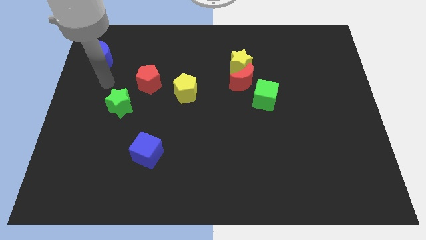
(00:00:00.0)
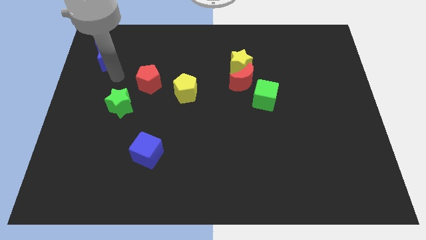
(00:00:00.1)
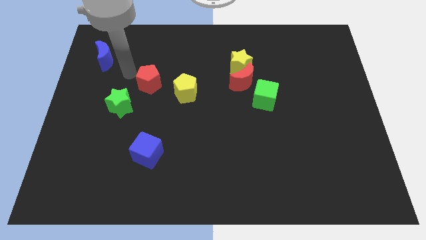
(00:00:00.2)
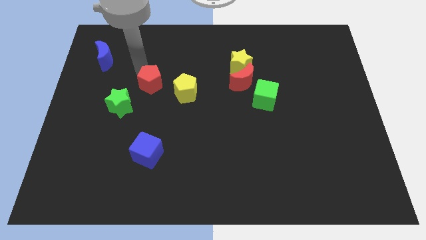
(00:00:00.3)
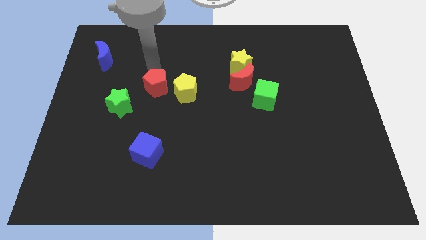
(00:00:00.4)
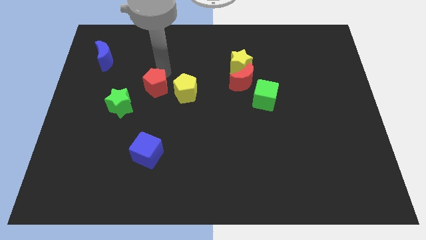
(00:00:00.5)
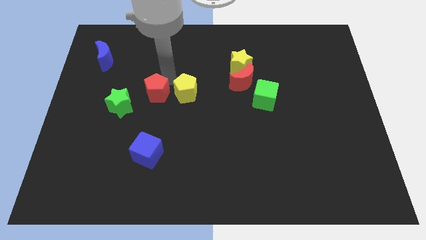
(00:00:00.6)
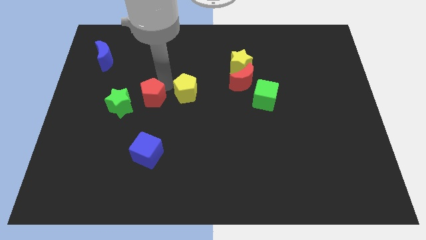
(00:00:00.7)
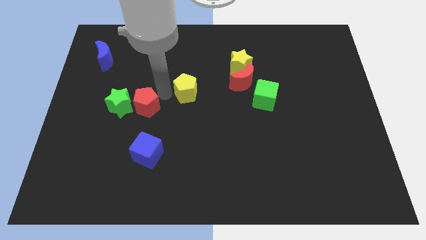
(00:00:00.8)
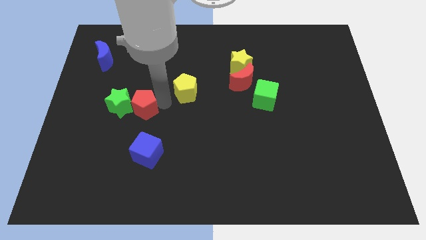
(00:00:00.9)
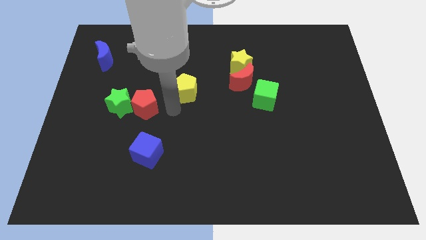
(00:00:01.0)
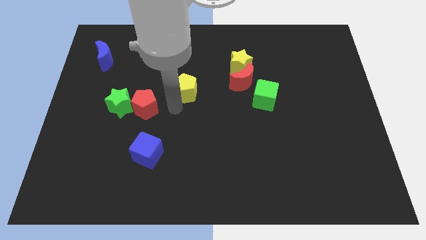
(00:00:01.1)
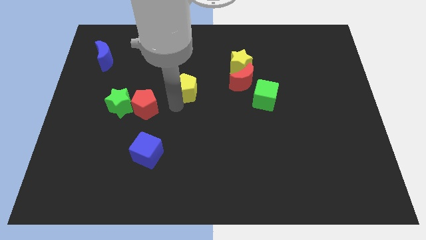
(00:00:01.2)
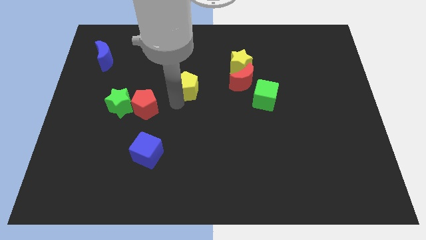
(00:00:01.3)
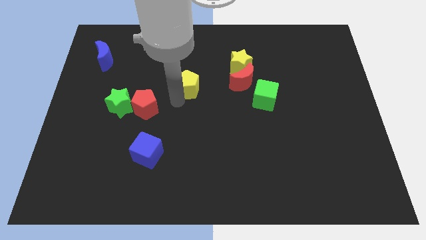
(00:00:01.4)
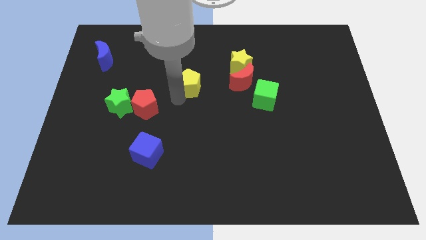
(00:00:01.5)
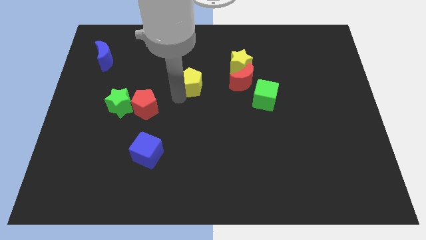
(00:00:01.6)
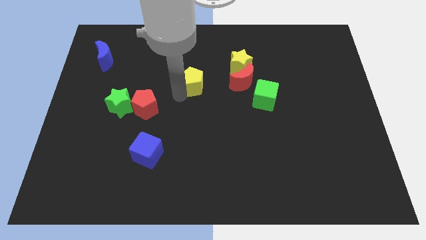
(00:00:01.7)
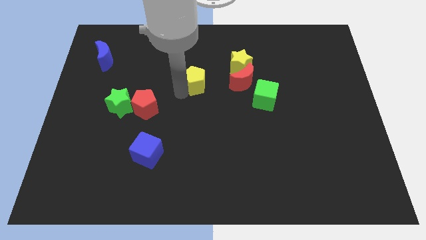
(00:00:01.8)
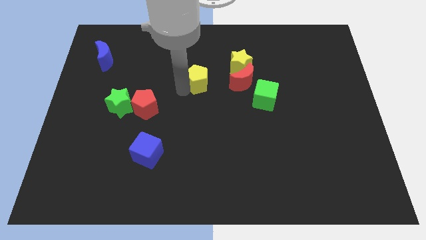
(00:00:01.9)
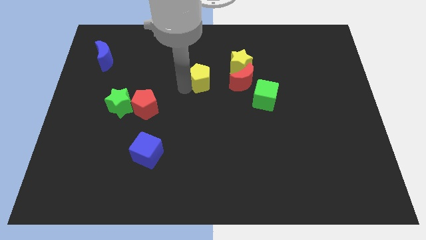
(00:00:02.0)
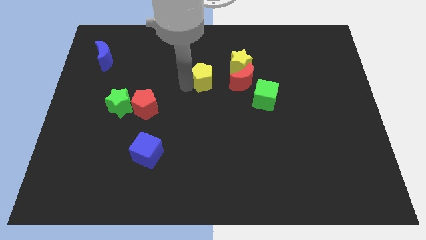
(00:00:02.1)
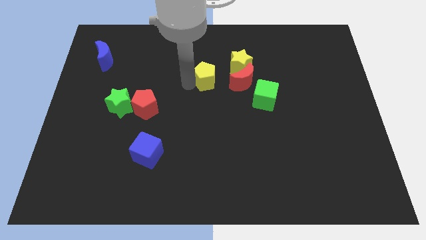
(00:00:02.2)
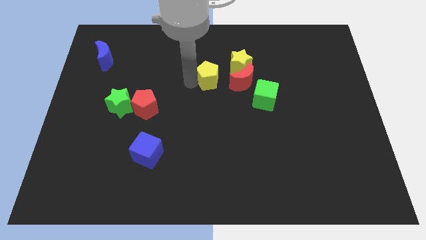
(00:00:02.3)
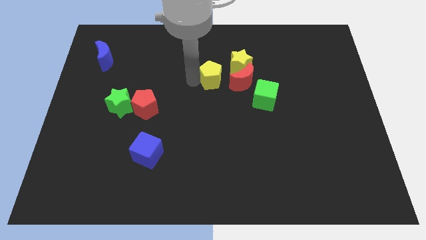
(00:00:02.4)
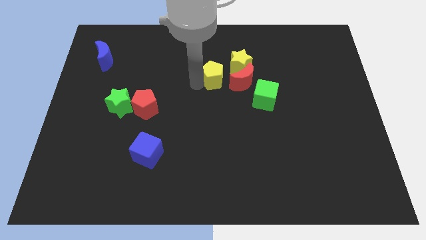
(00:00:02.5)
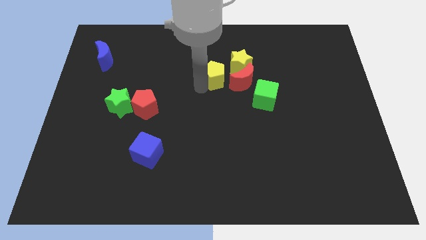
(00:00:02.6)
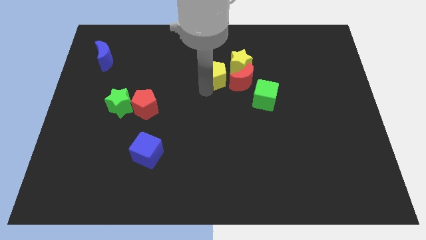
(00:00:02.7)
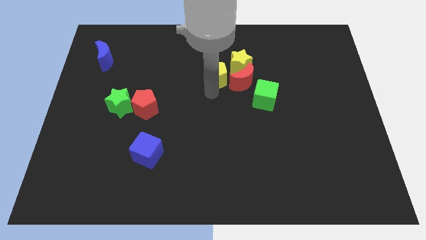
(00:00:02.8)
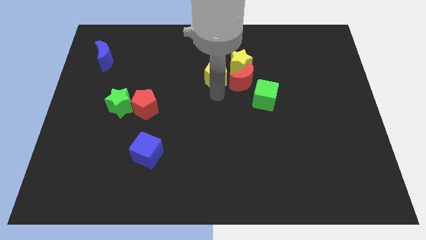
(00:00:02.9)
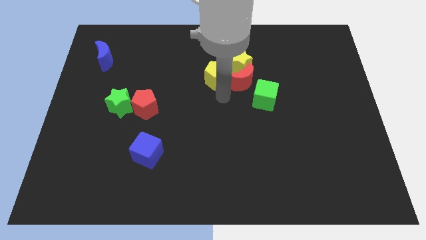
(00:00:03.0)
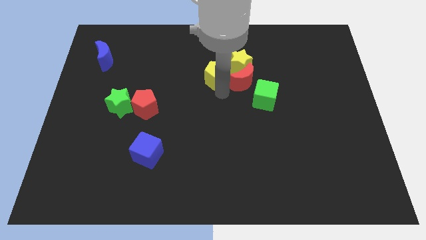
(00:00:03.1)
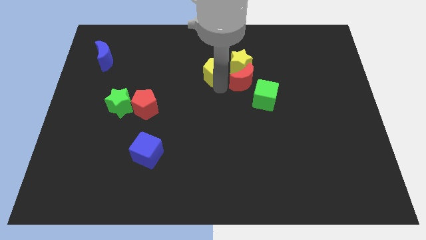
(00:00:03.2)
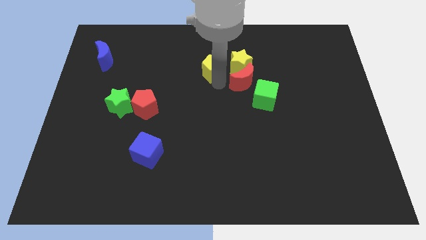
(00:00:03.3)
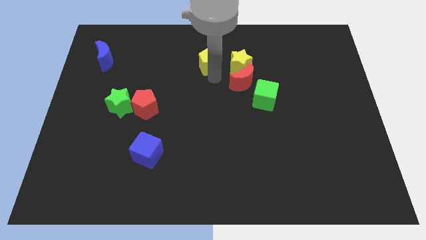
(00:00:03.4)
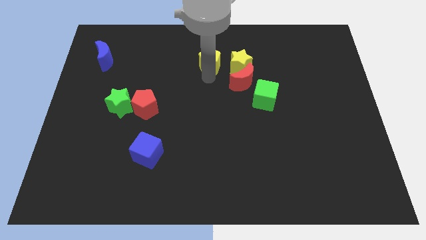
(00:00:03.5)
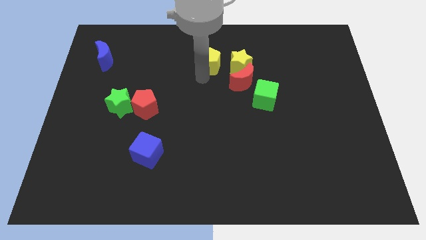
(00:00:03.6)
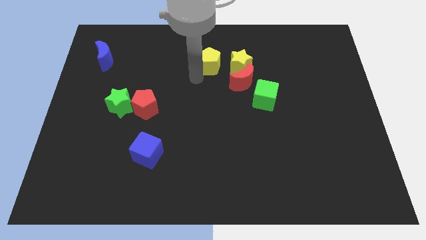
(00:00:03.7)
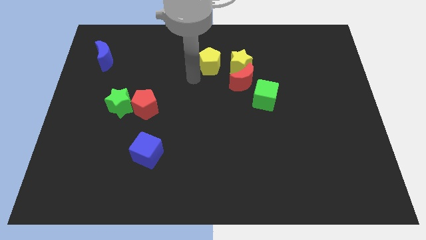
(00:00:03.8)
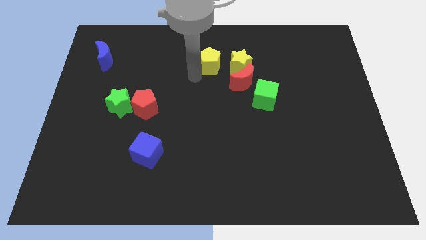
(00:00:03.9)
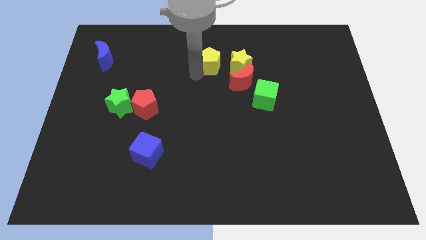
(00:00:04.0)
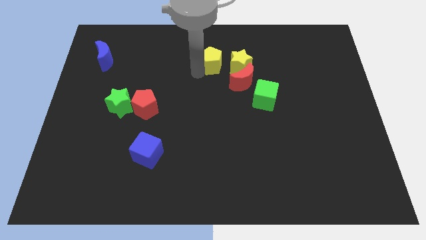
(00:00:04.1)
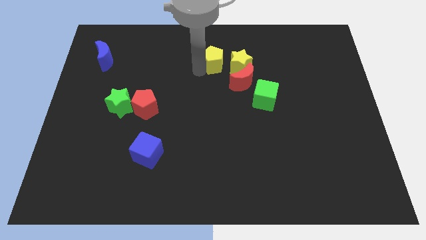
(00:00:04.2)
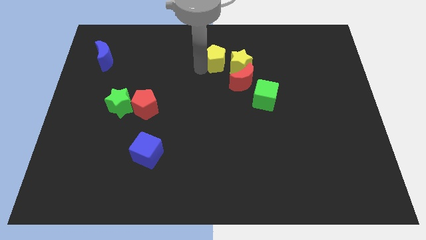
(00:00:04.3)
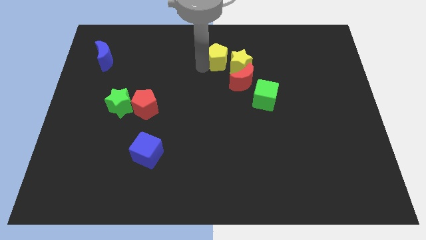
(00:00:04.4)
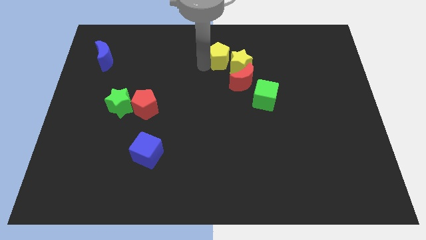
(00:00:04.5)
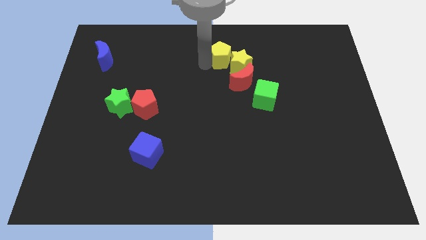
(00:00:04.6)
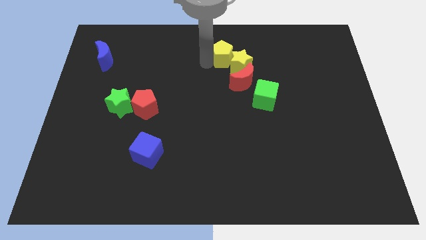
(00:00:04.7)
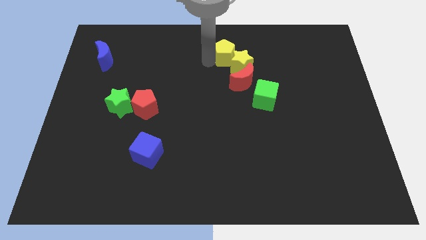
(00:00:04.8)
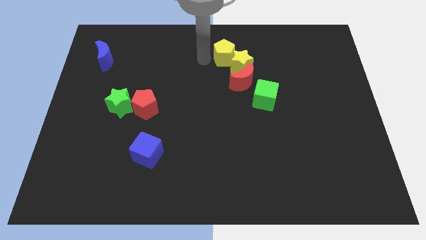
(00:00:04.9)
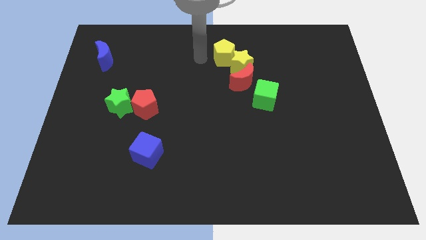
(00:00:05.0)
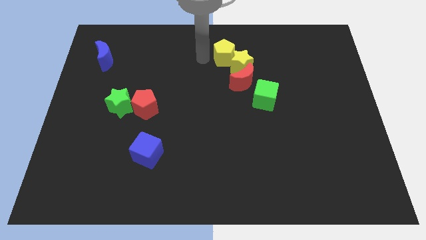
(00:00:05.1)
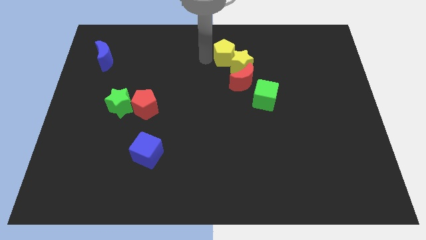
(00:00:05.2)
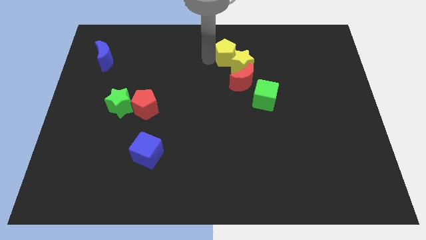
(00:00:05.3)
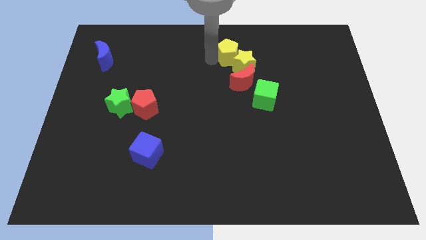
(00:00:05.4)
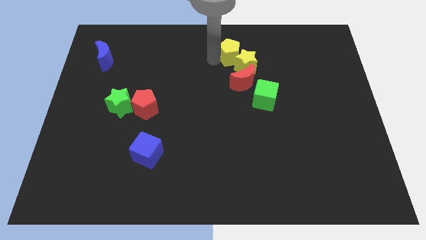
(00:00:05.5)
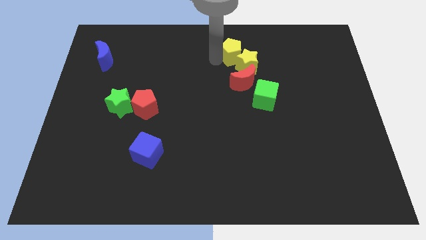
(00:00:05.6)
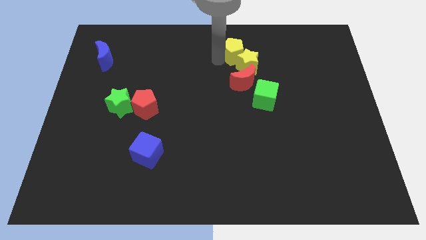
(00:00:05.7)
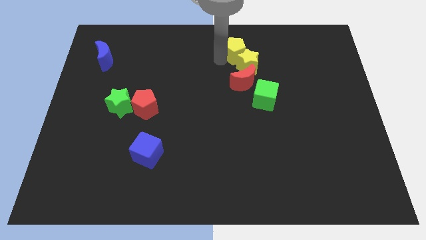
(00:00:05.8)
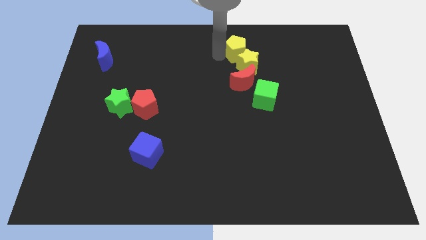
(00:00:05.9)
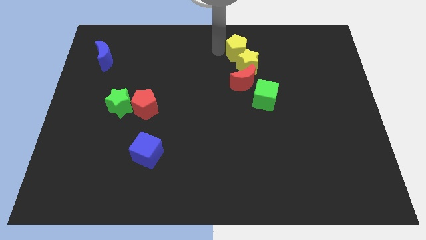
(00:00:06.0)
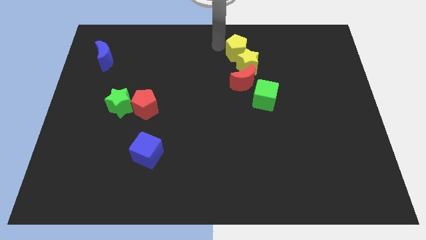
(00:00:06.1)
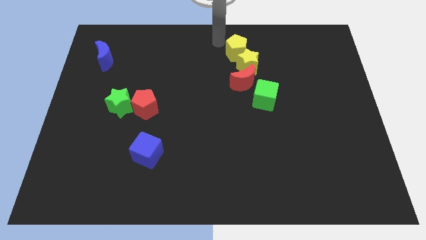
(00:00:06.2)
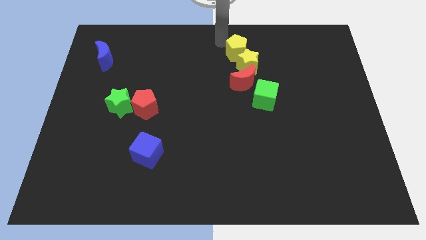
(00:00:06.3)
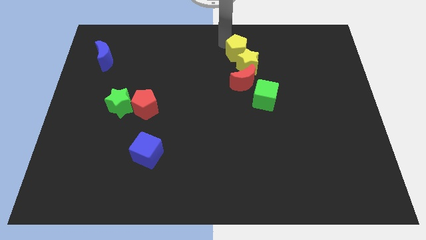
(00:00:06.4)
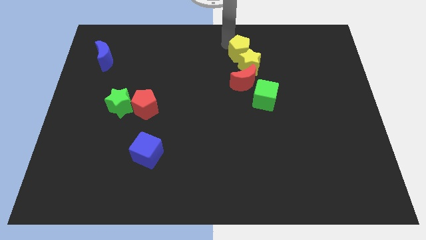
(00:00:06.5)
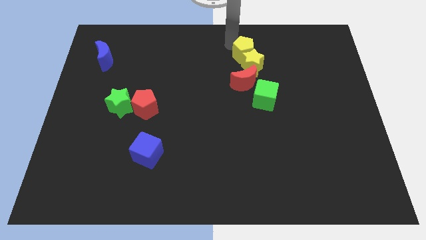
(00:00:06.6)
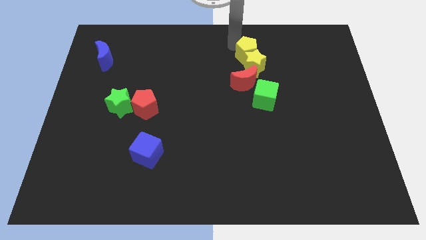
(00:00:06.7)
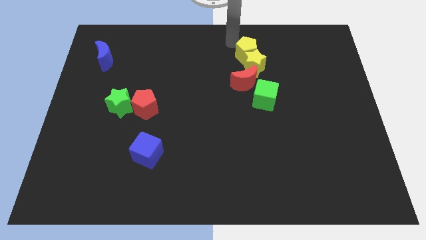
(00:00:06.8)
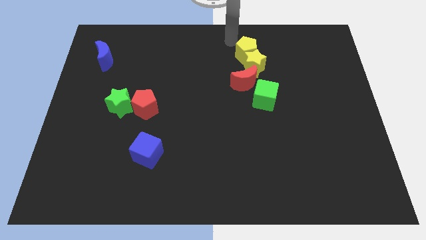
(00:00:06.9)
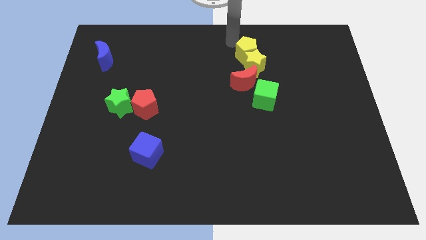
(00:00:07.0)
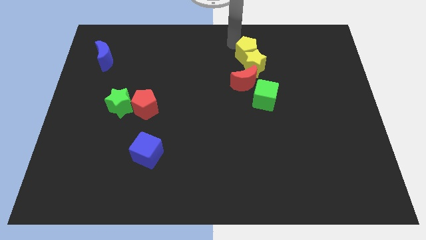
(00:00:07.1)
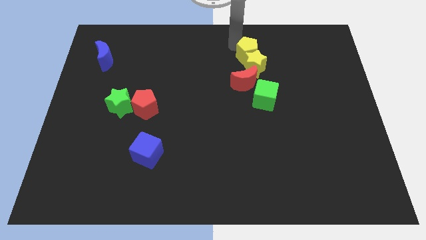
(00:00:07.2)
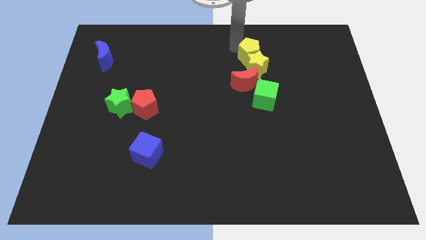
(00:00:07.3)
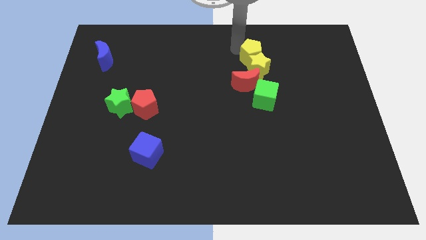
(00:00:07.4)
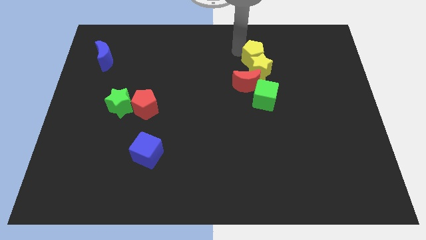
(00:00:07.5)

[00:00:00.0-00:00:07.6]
slide the yellow pentagon to the top right of the red moon
